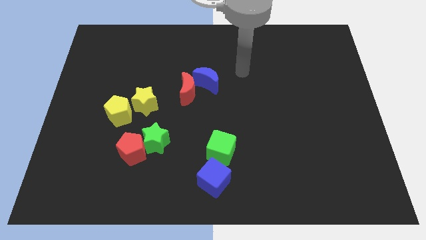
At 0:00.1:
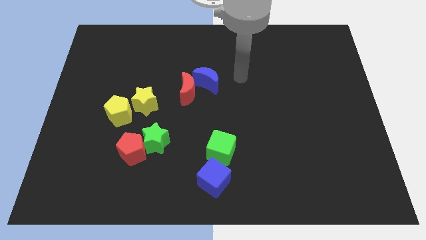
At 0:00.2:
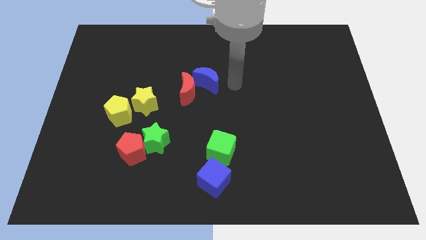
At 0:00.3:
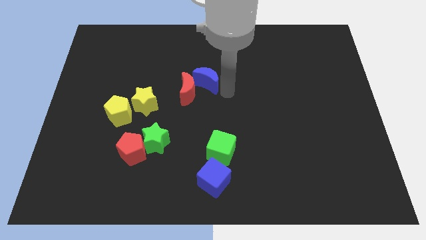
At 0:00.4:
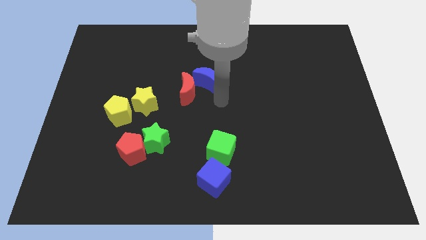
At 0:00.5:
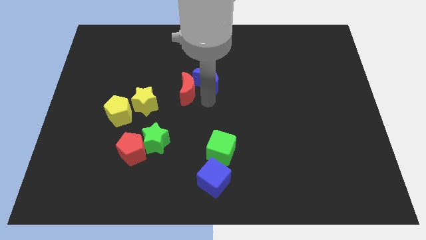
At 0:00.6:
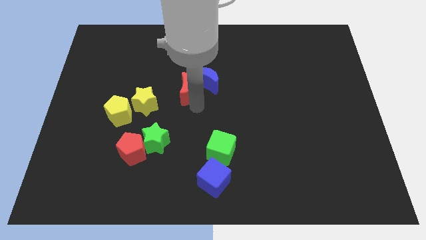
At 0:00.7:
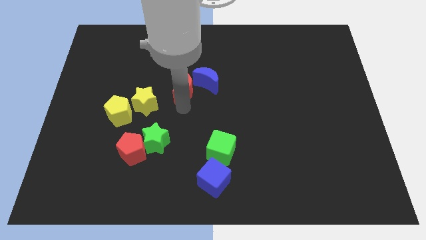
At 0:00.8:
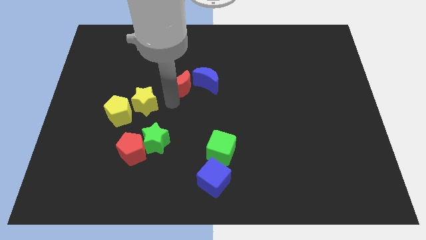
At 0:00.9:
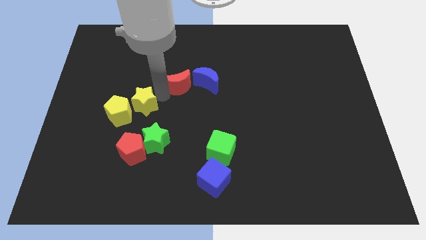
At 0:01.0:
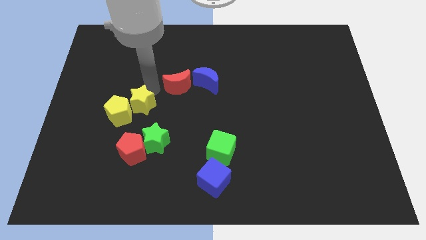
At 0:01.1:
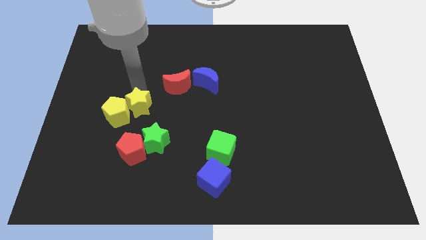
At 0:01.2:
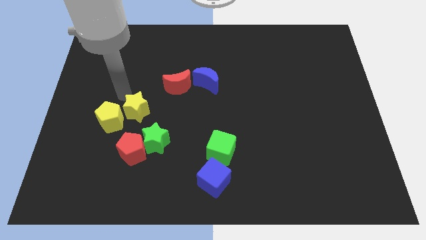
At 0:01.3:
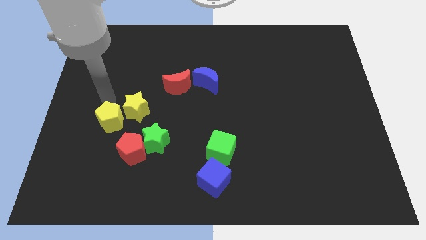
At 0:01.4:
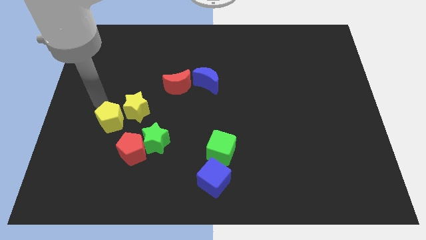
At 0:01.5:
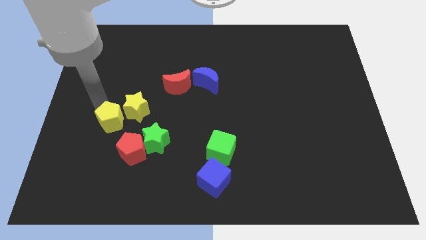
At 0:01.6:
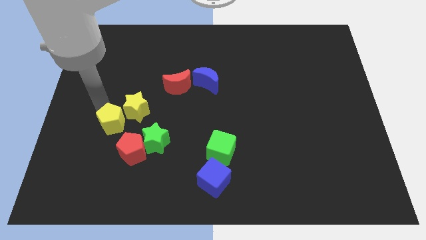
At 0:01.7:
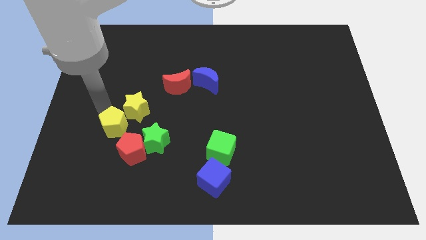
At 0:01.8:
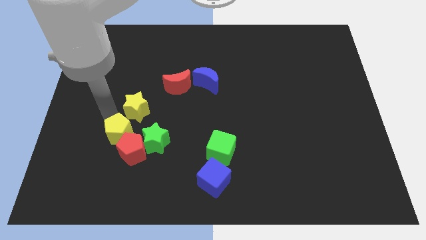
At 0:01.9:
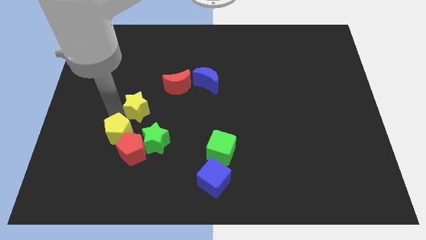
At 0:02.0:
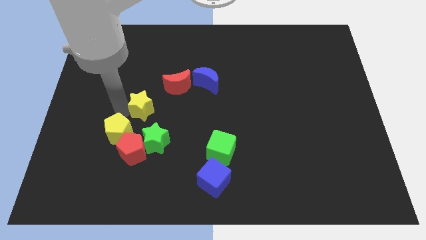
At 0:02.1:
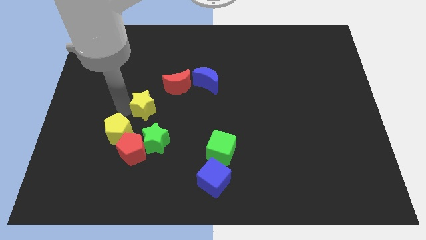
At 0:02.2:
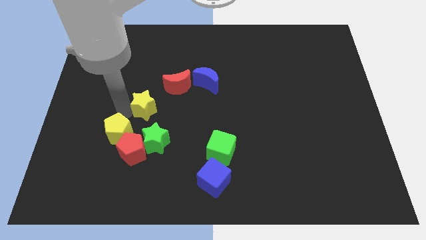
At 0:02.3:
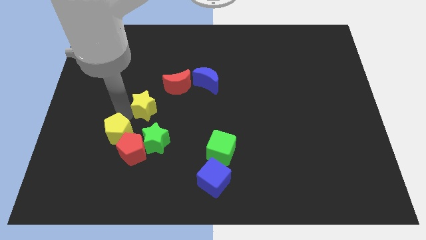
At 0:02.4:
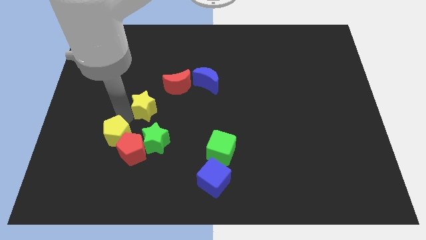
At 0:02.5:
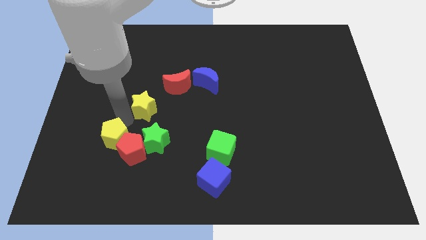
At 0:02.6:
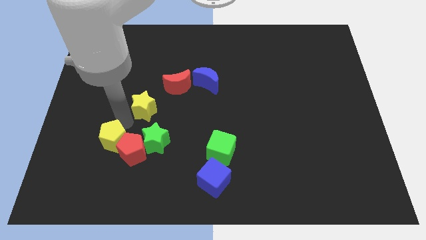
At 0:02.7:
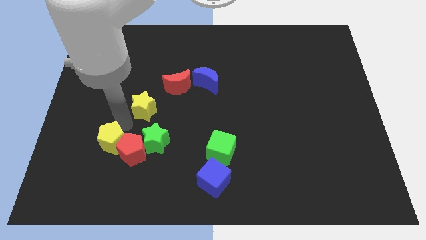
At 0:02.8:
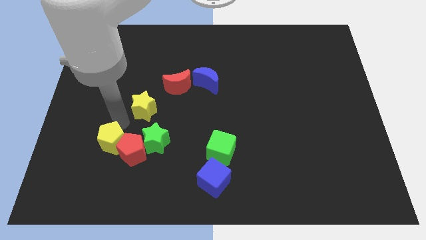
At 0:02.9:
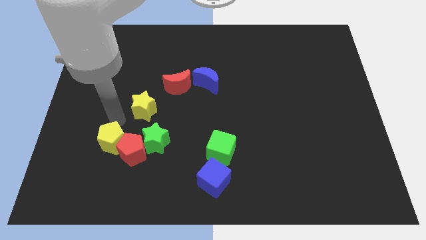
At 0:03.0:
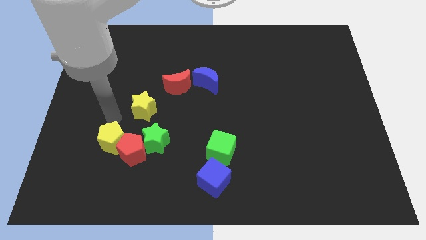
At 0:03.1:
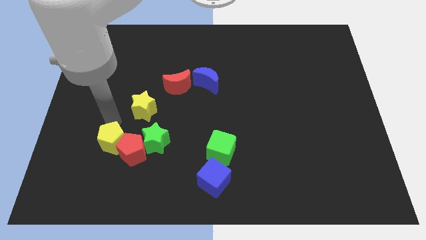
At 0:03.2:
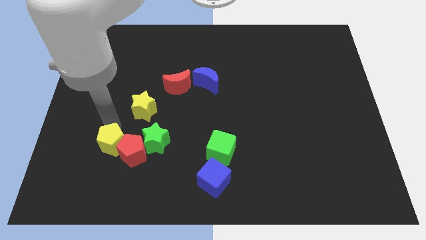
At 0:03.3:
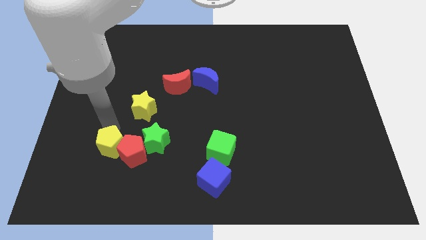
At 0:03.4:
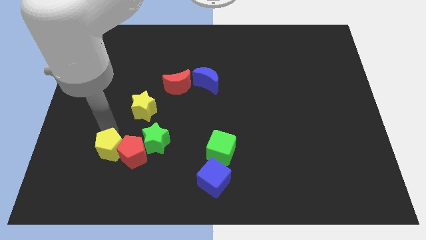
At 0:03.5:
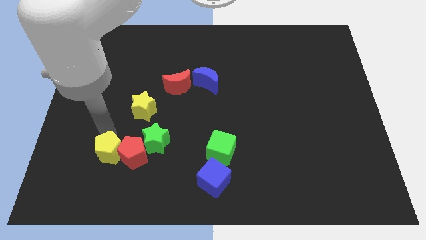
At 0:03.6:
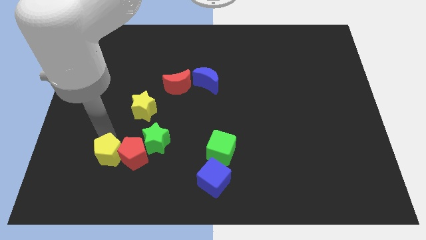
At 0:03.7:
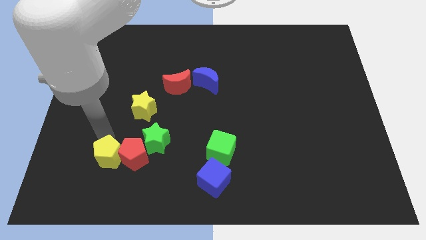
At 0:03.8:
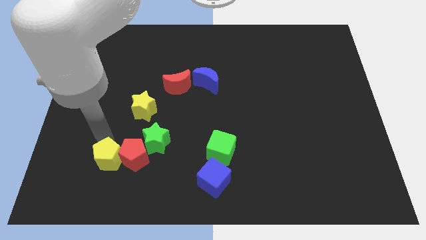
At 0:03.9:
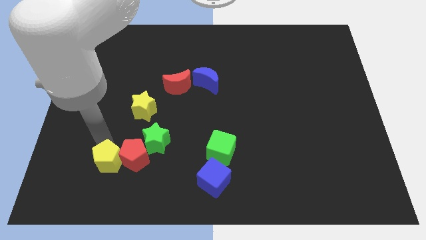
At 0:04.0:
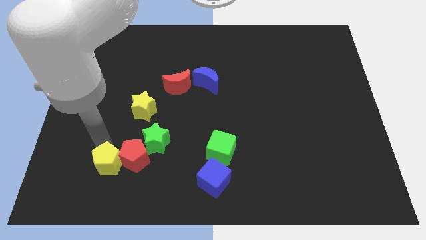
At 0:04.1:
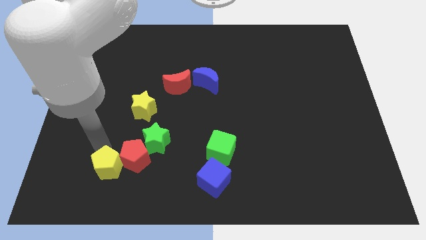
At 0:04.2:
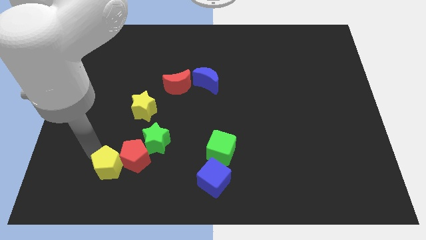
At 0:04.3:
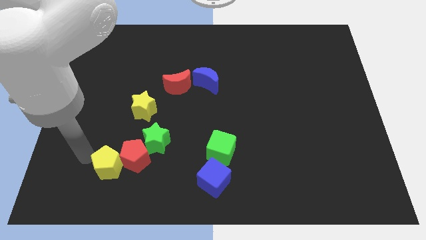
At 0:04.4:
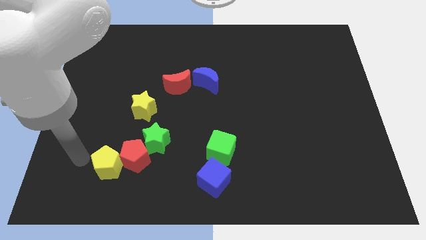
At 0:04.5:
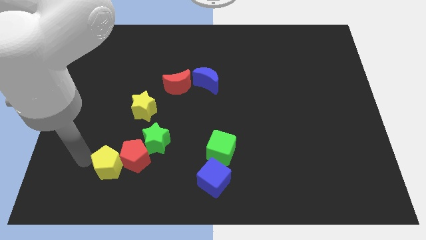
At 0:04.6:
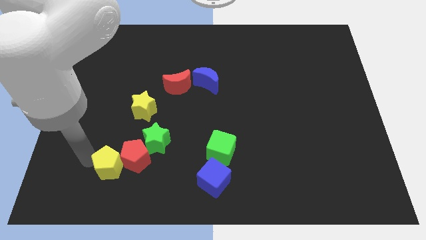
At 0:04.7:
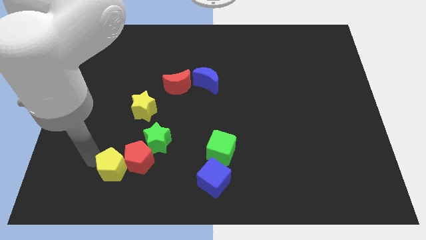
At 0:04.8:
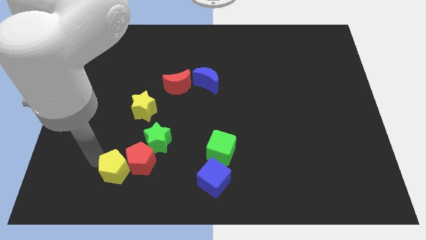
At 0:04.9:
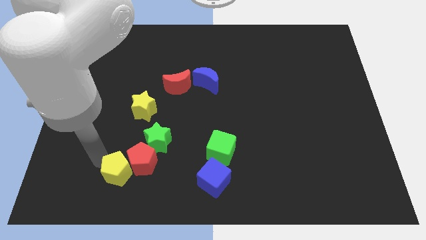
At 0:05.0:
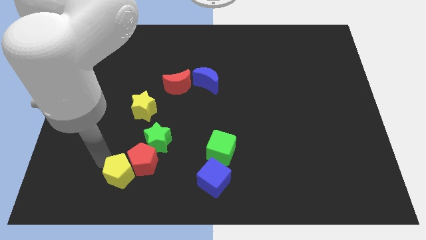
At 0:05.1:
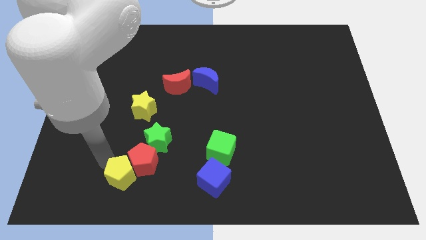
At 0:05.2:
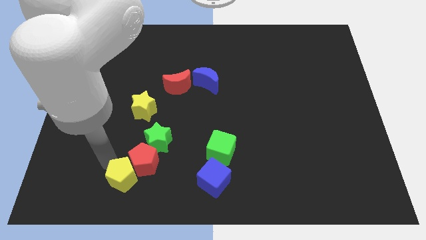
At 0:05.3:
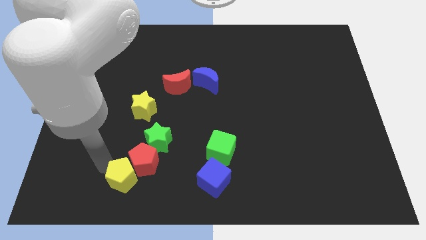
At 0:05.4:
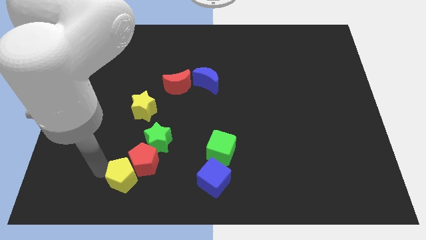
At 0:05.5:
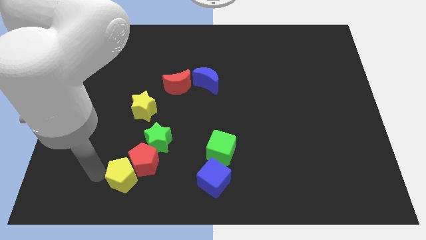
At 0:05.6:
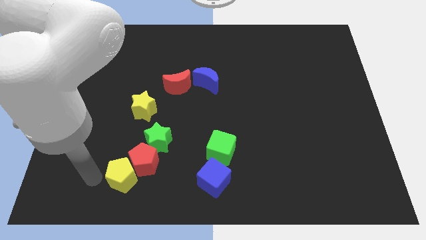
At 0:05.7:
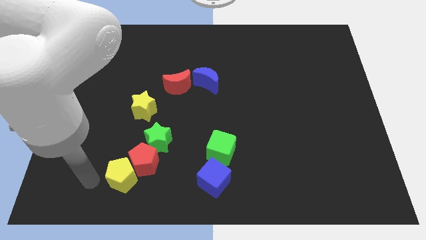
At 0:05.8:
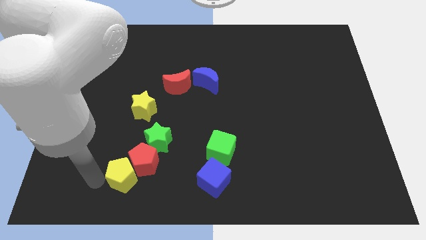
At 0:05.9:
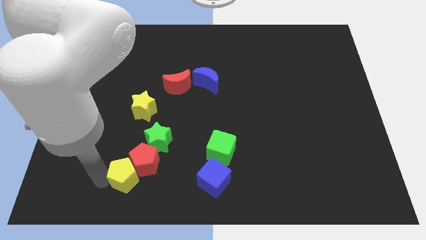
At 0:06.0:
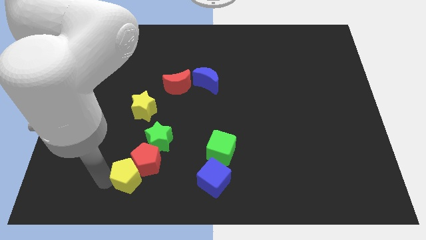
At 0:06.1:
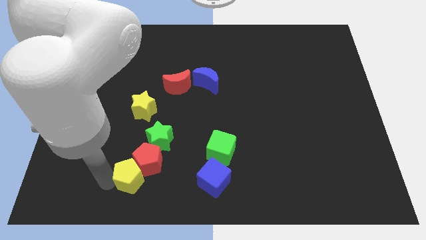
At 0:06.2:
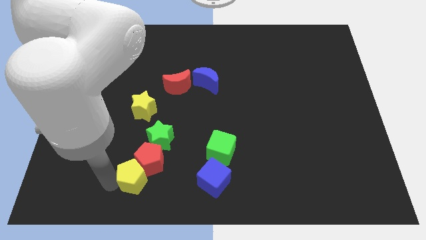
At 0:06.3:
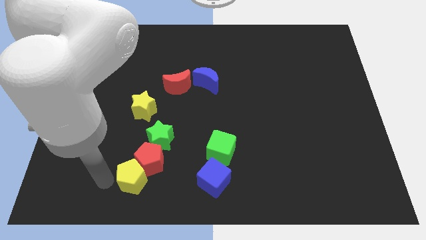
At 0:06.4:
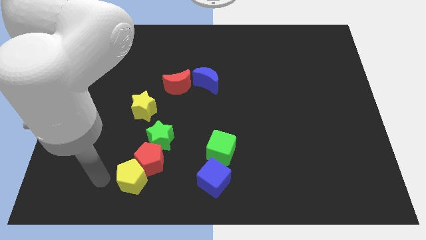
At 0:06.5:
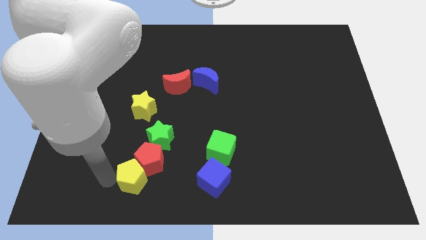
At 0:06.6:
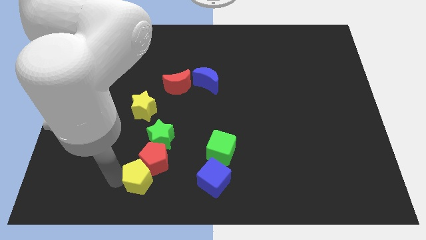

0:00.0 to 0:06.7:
put the yellow pentagon just left of the blue cube
